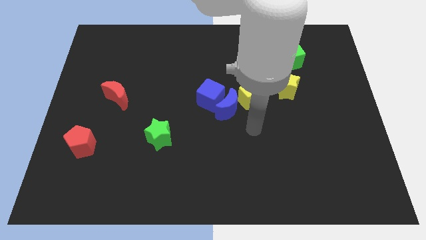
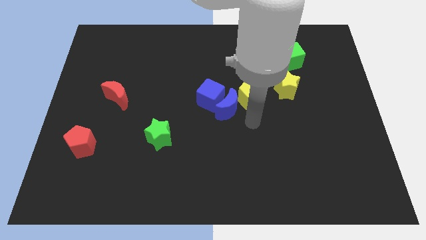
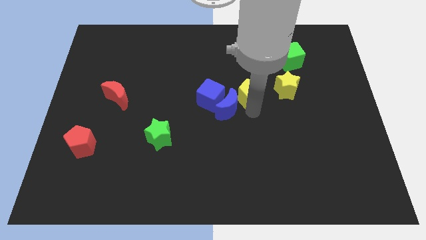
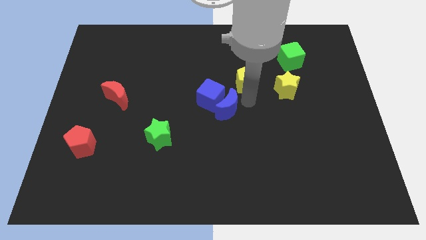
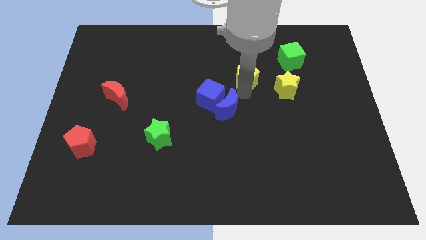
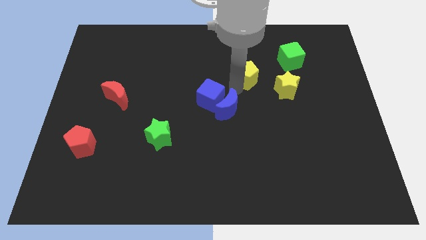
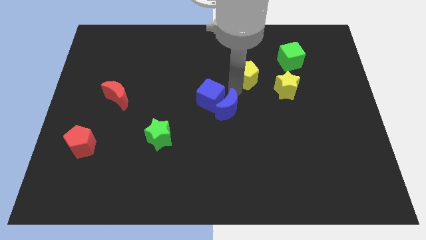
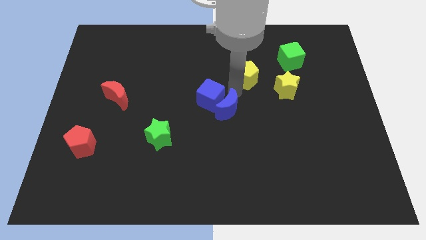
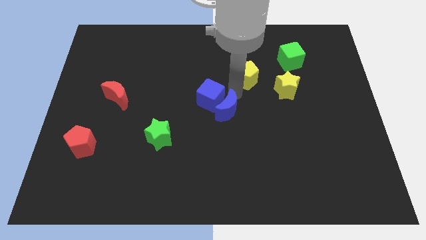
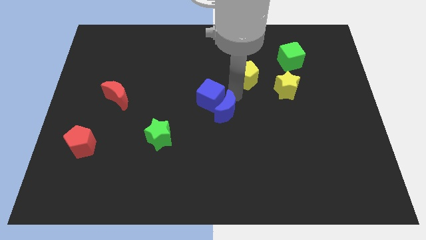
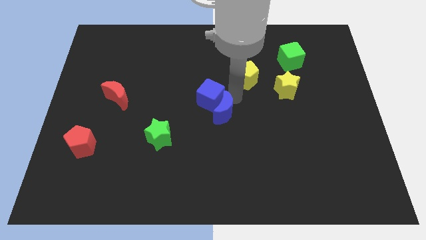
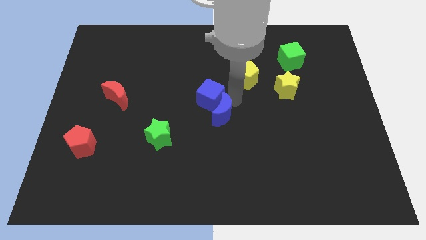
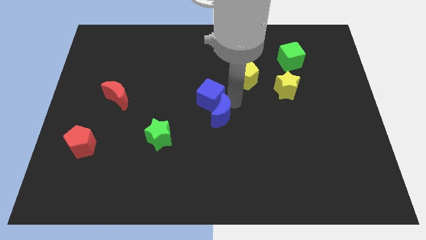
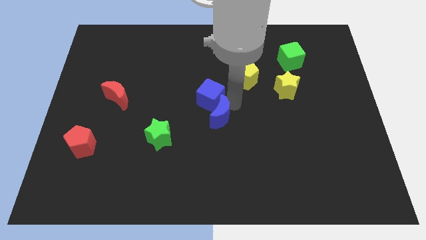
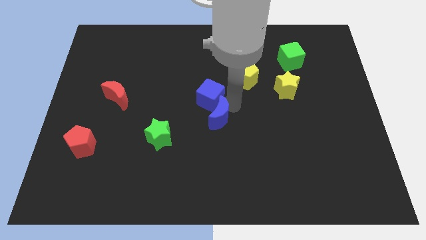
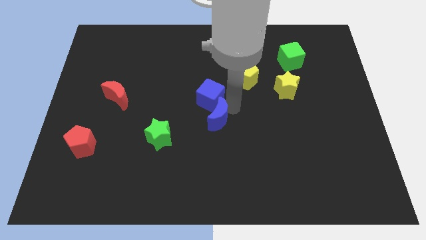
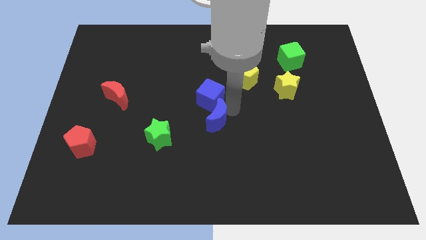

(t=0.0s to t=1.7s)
move the blue moon away from the blue cube and yellow pentagon

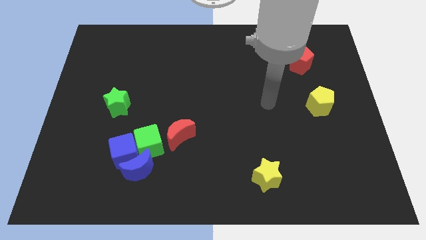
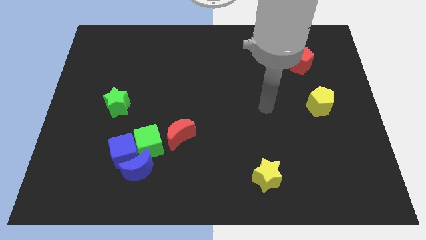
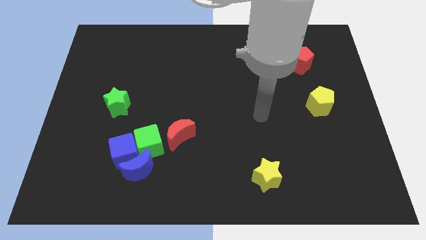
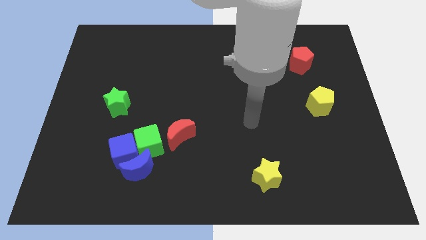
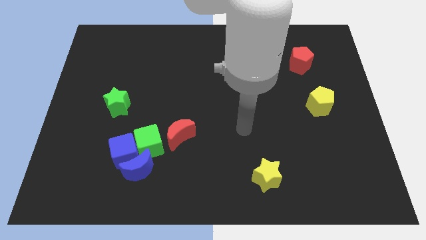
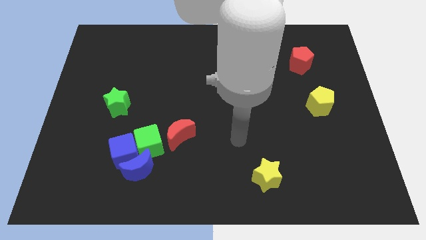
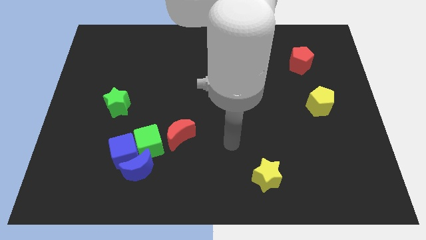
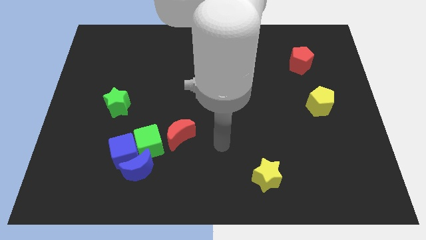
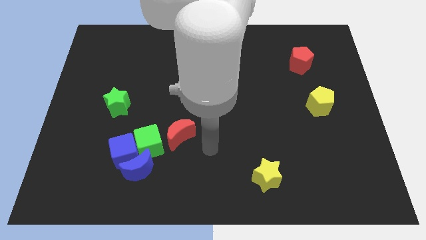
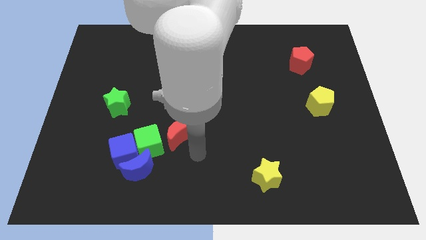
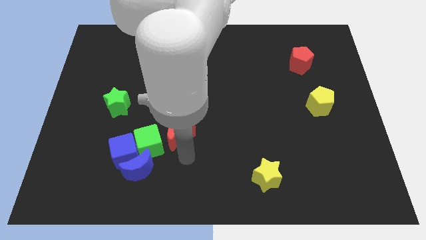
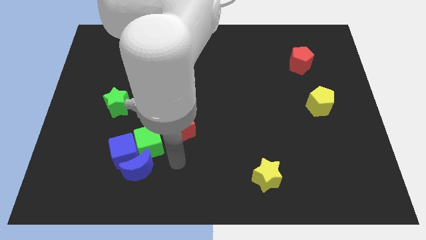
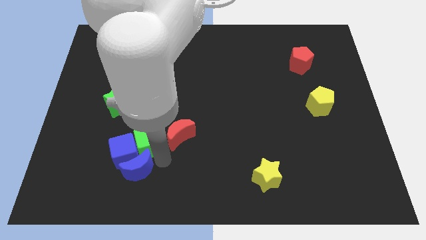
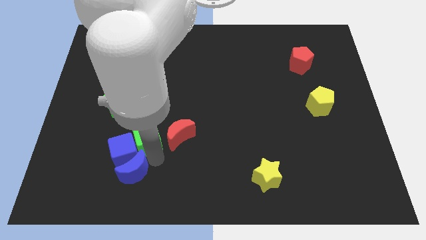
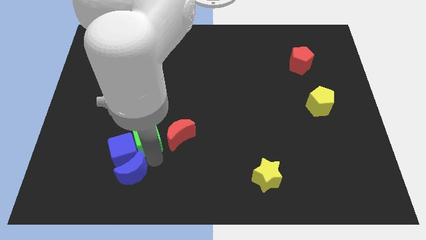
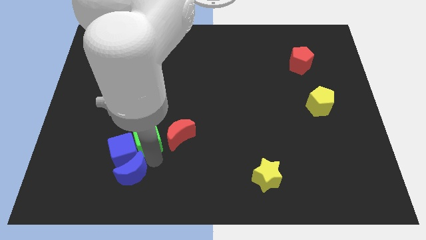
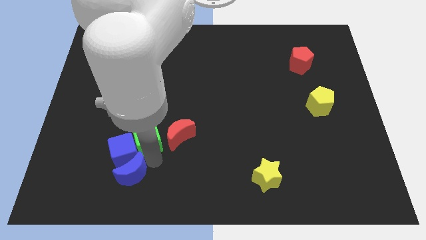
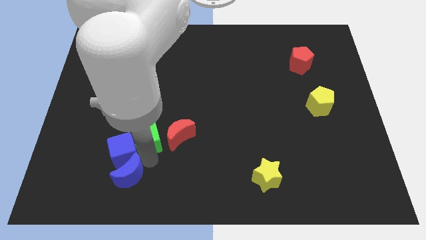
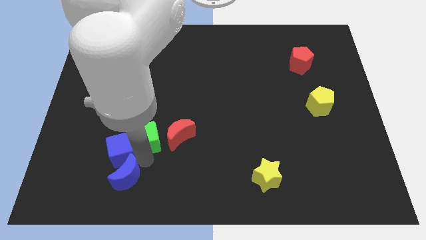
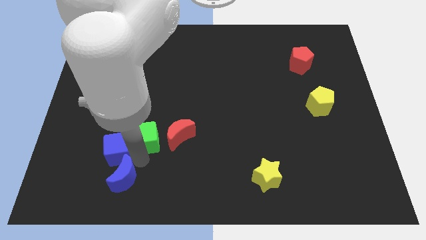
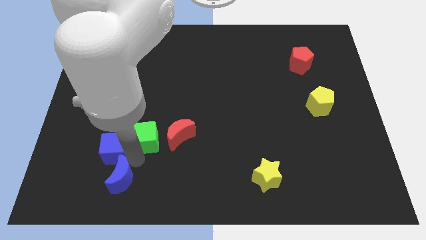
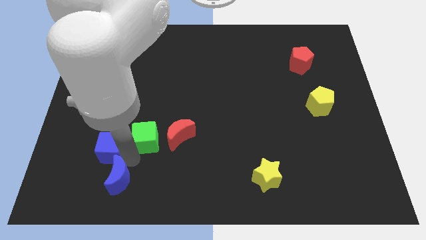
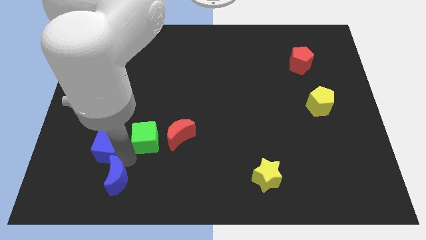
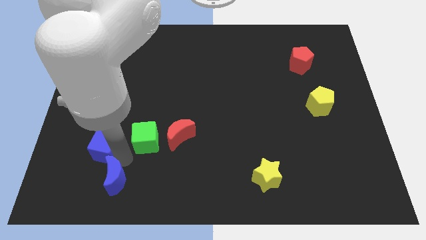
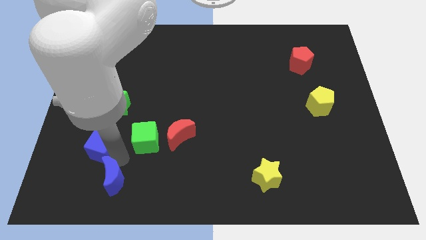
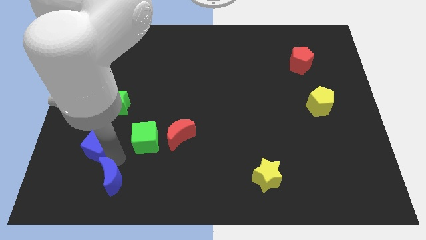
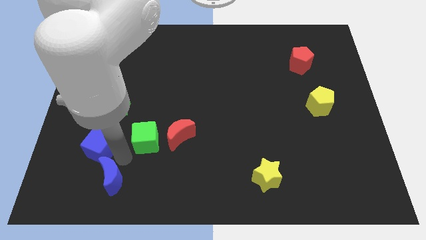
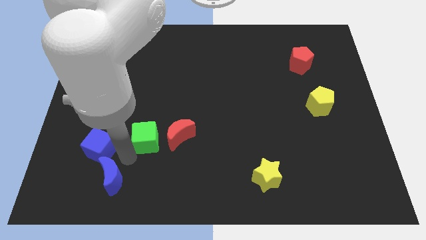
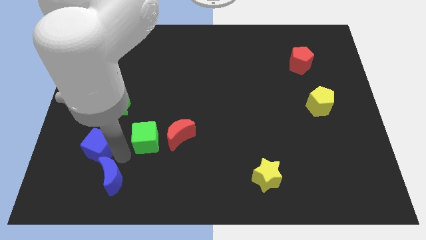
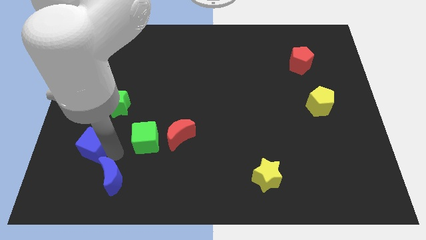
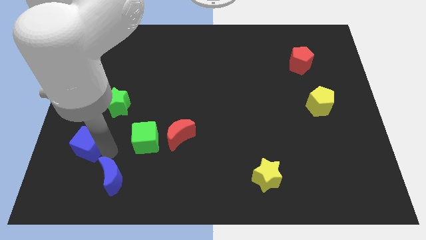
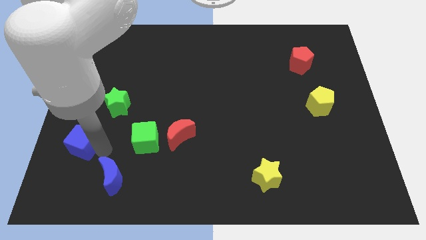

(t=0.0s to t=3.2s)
separate the blue cube from the blue moon and green cube

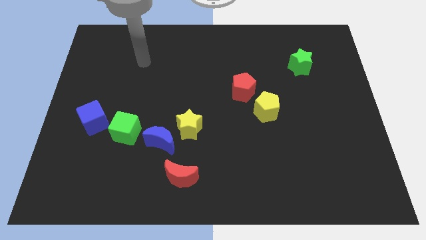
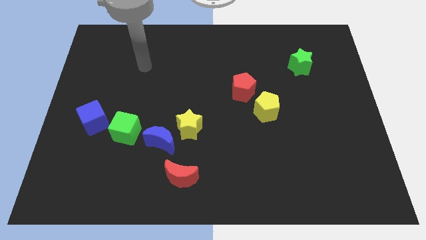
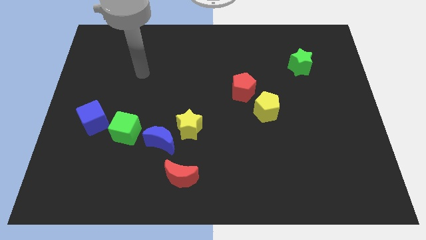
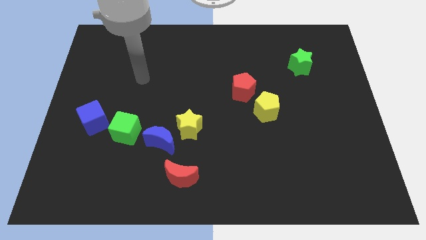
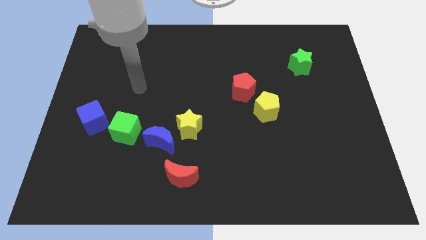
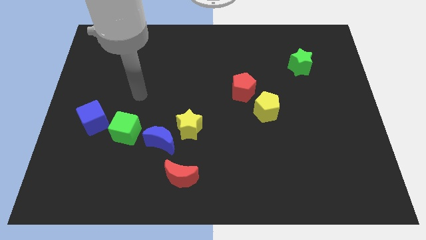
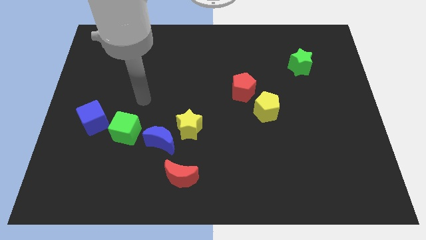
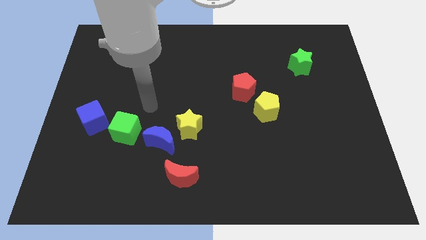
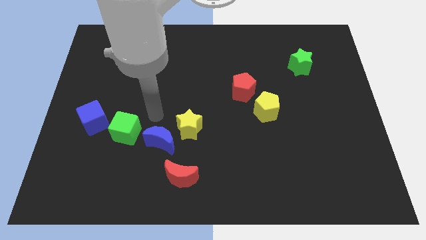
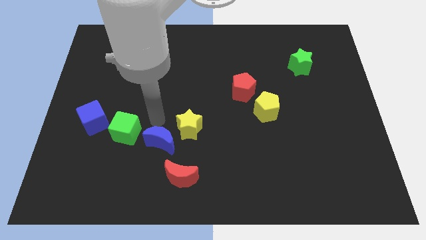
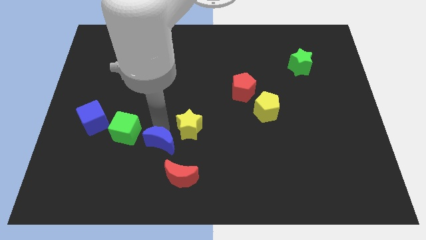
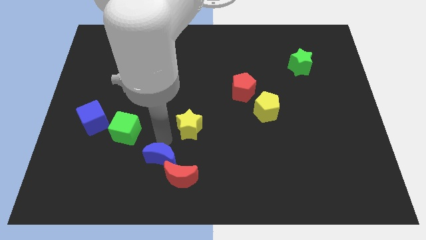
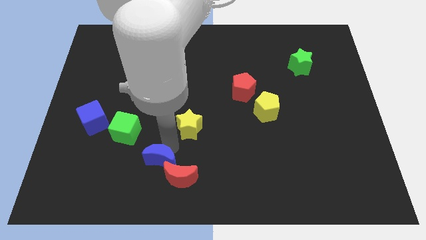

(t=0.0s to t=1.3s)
move the yellow star away from the blue moon

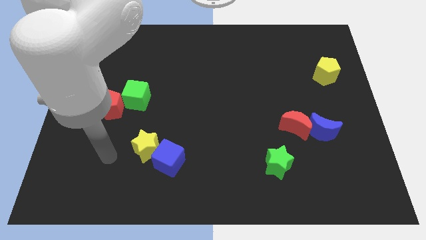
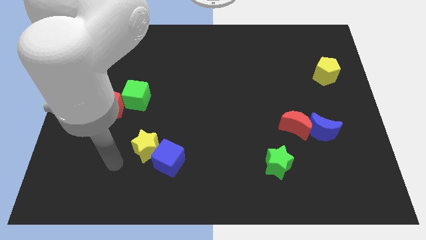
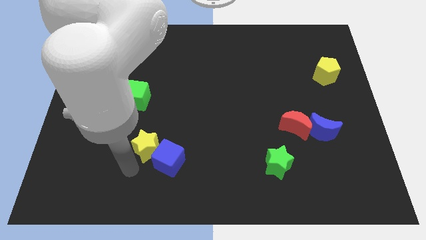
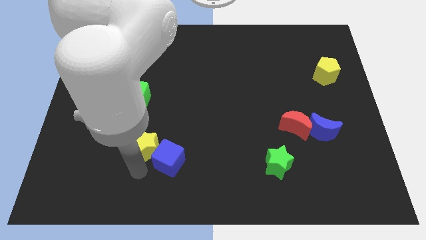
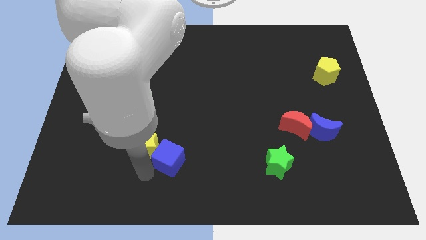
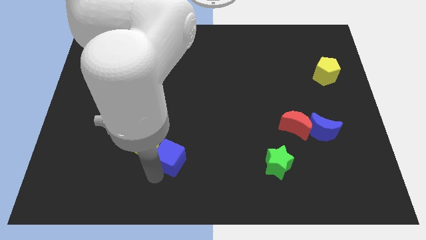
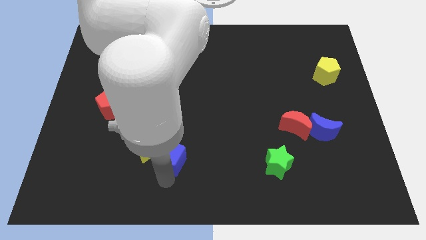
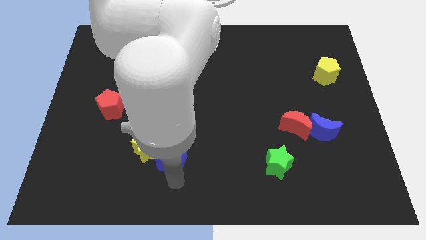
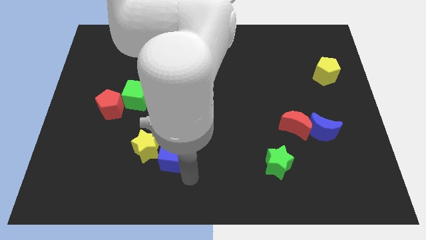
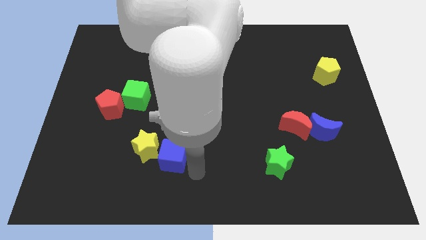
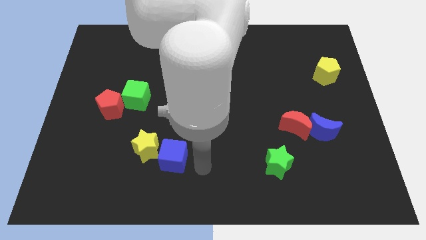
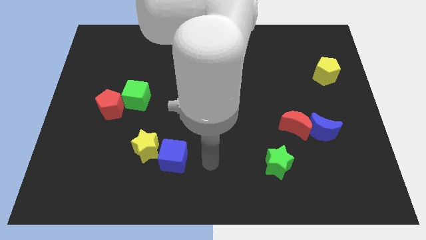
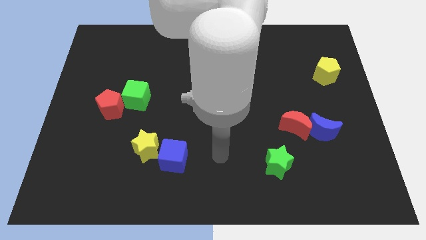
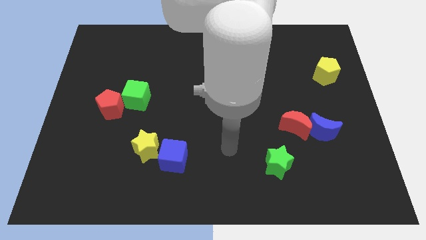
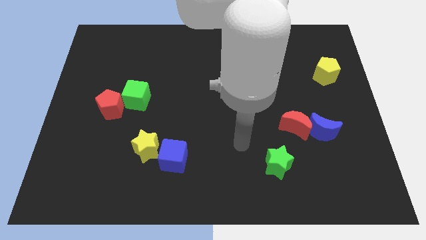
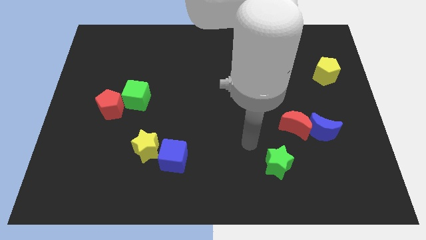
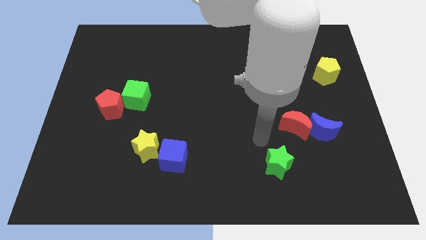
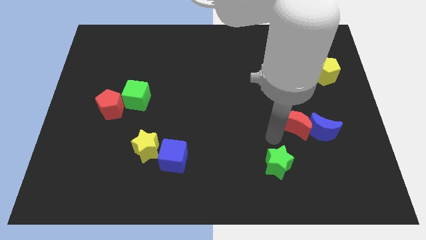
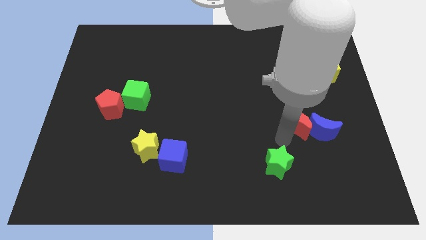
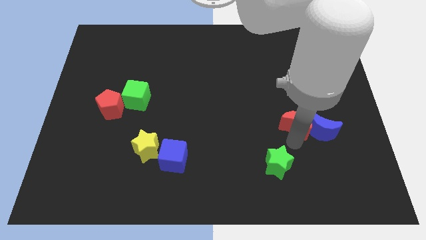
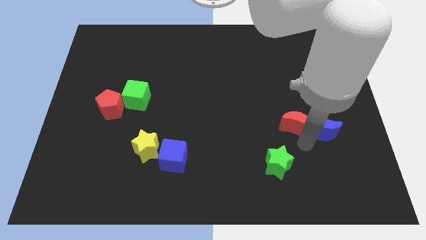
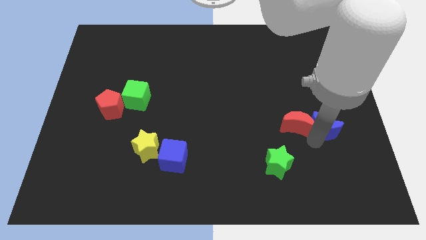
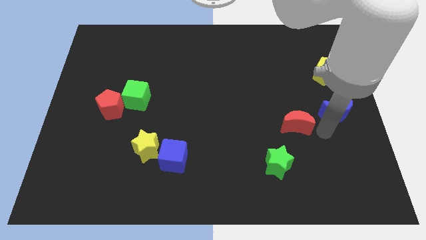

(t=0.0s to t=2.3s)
separate the red moon from the blue moon

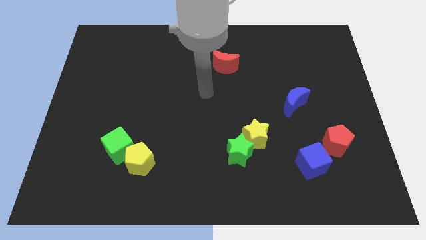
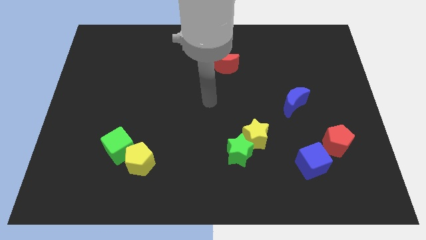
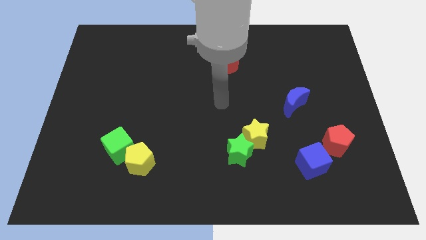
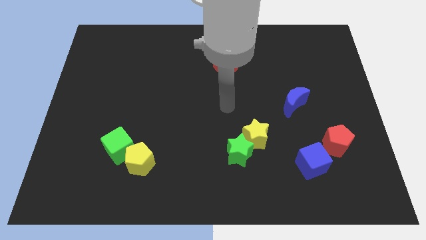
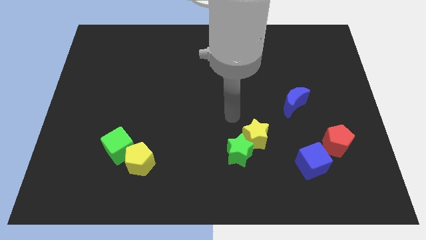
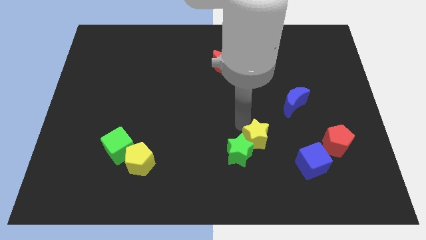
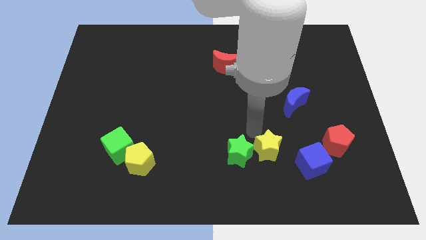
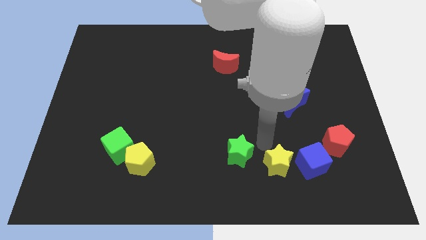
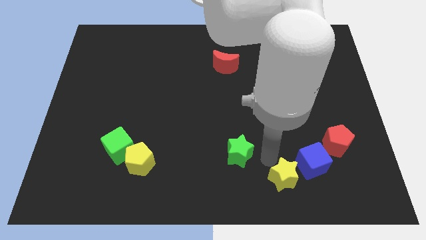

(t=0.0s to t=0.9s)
separate the green star from the yellow star
